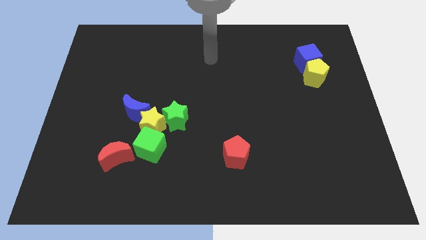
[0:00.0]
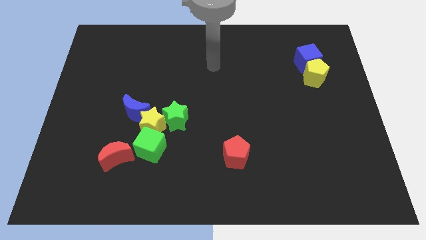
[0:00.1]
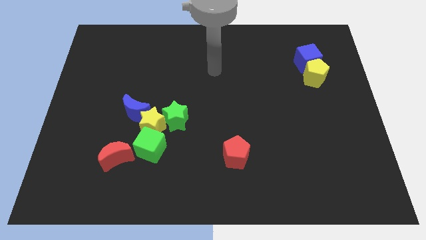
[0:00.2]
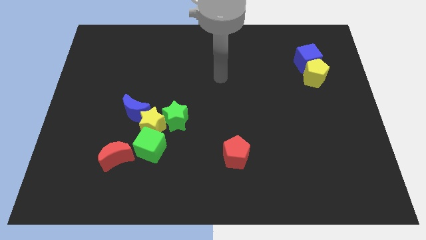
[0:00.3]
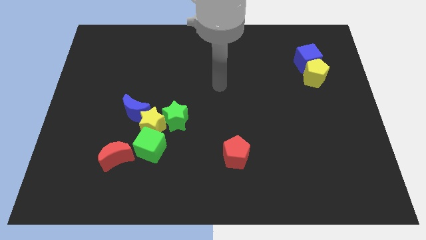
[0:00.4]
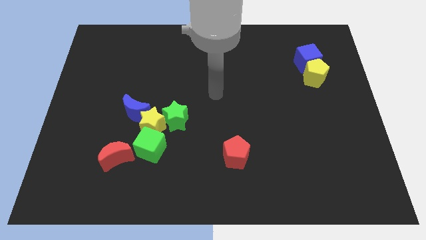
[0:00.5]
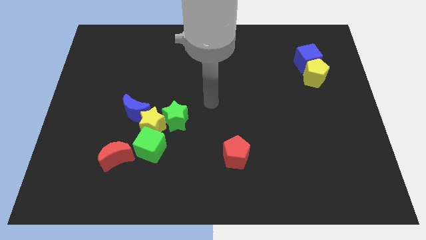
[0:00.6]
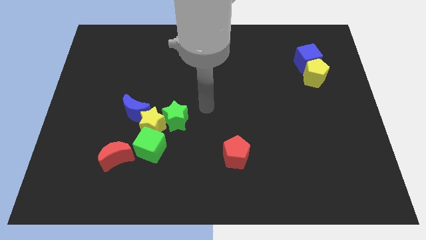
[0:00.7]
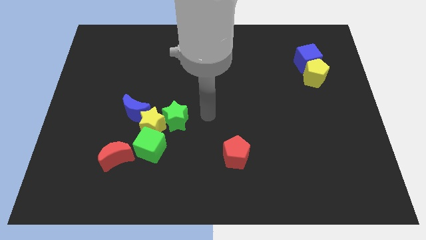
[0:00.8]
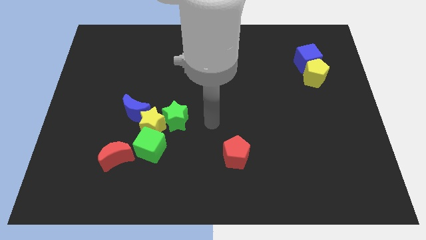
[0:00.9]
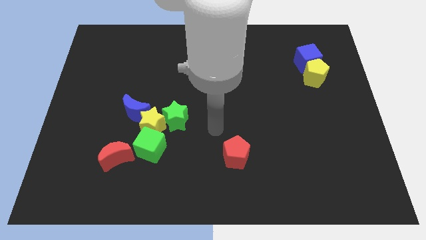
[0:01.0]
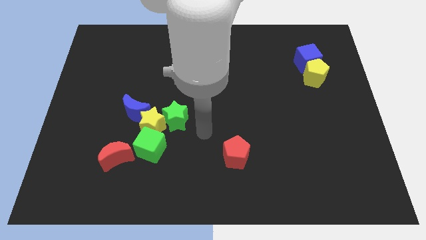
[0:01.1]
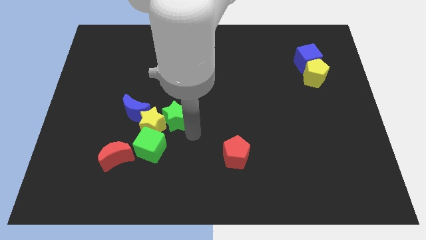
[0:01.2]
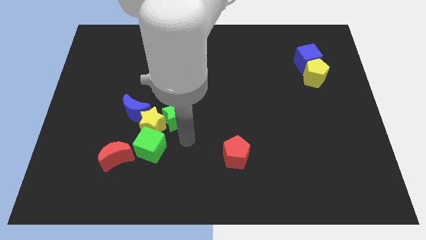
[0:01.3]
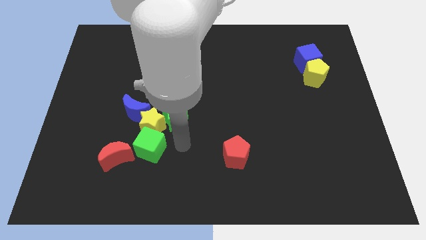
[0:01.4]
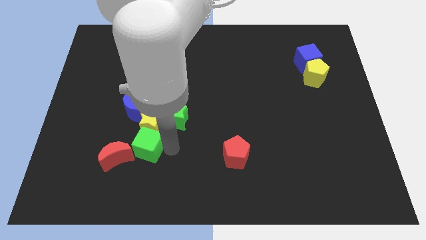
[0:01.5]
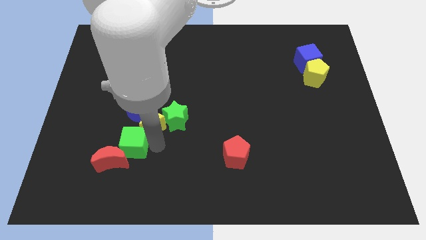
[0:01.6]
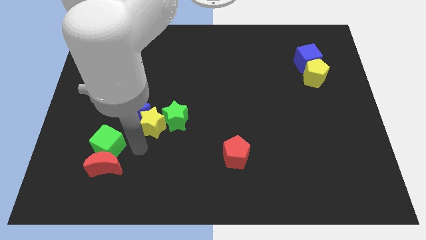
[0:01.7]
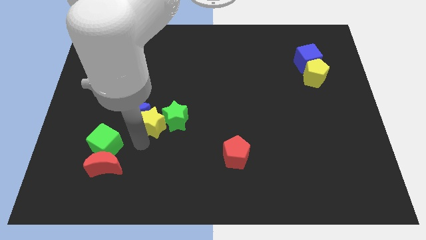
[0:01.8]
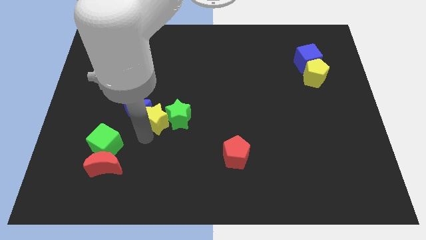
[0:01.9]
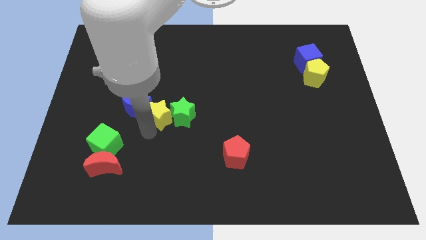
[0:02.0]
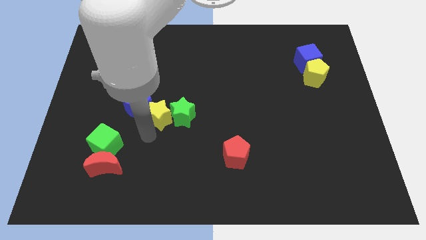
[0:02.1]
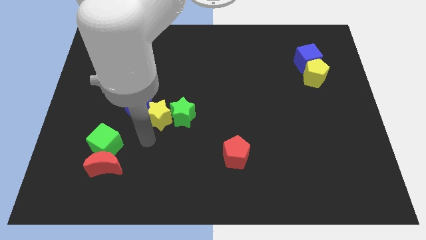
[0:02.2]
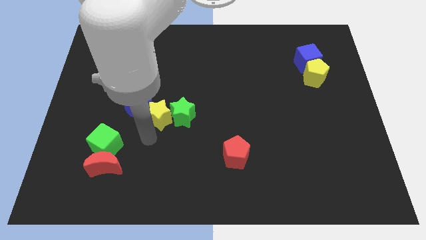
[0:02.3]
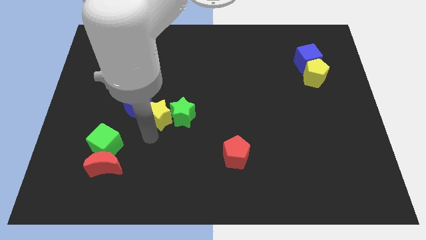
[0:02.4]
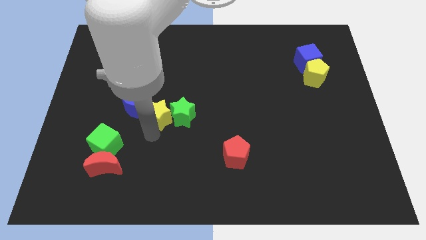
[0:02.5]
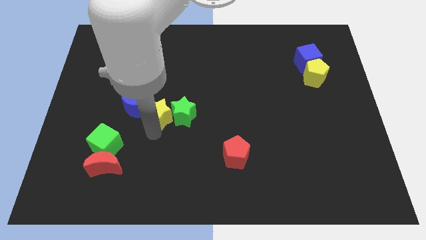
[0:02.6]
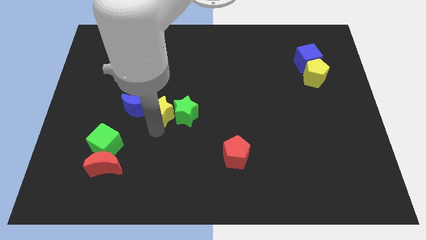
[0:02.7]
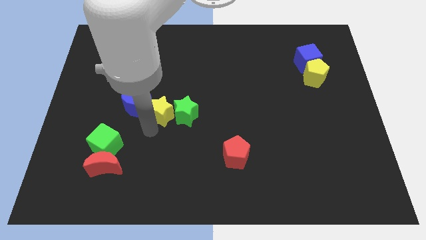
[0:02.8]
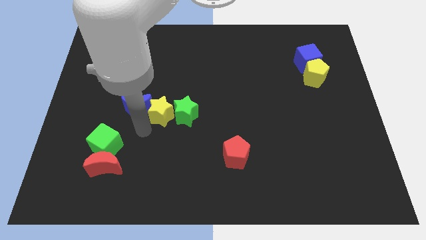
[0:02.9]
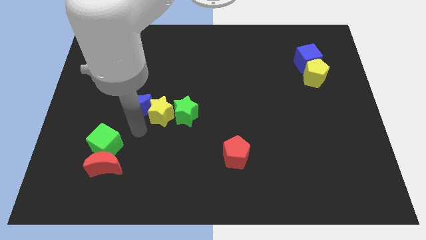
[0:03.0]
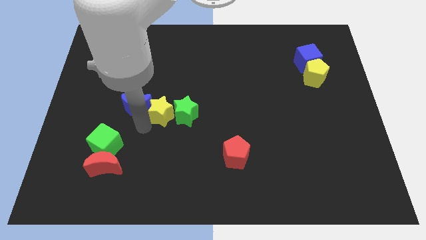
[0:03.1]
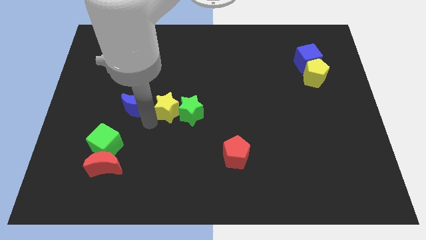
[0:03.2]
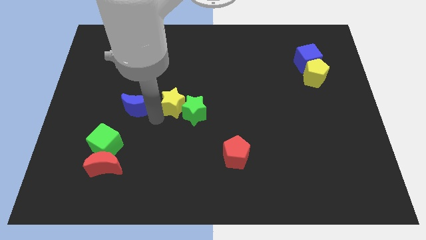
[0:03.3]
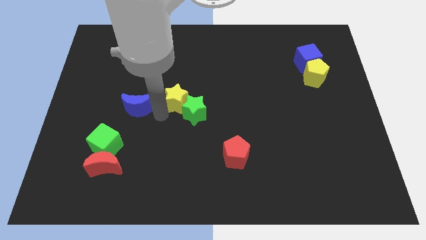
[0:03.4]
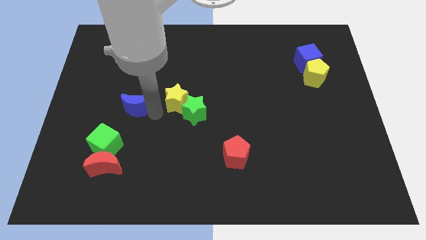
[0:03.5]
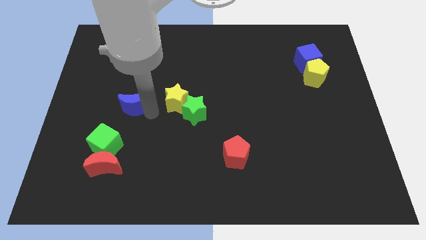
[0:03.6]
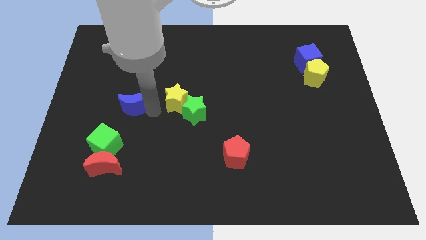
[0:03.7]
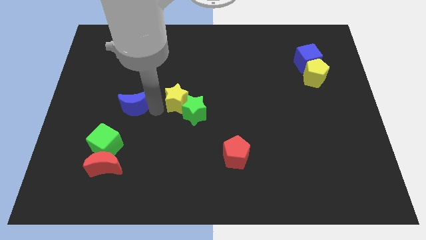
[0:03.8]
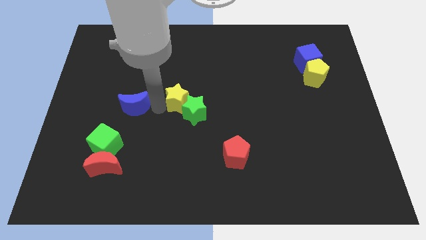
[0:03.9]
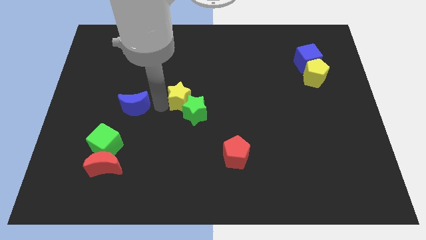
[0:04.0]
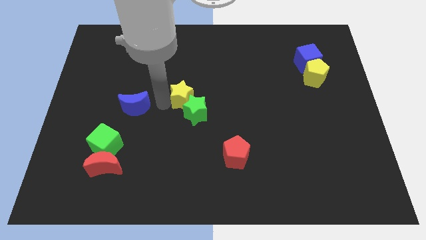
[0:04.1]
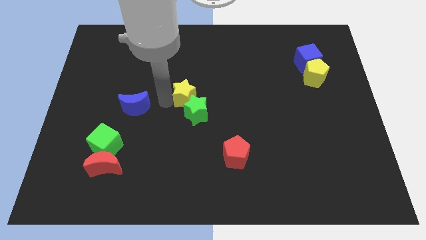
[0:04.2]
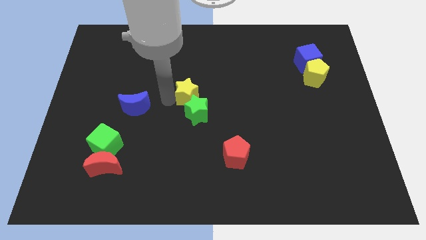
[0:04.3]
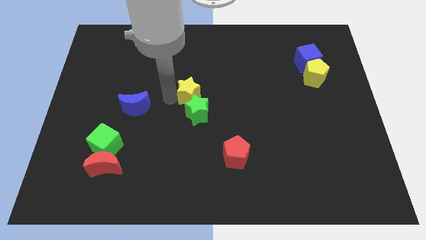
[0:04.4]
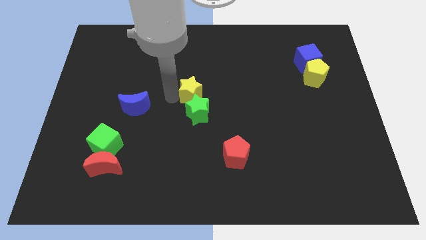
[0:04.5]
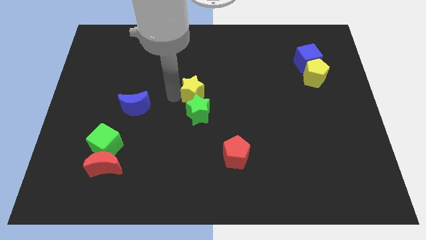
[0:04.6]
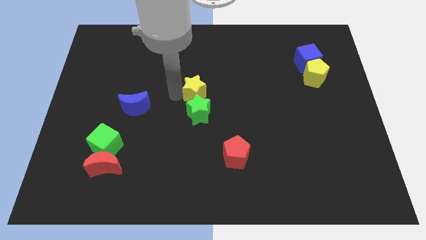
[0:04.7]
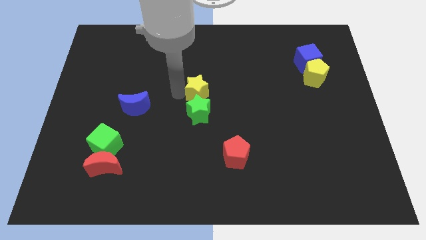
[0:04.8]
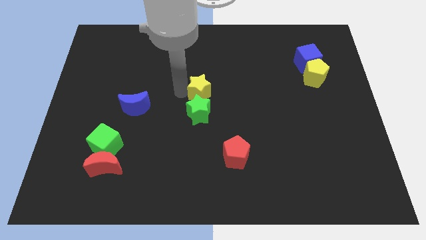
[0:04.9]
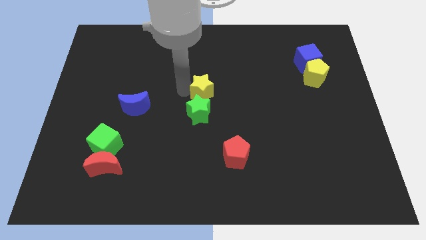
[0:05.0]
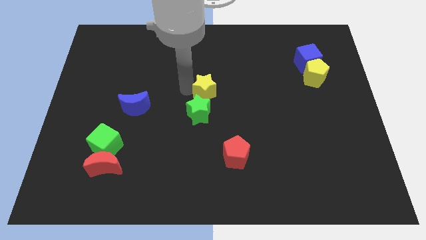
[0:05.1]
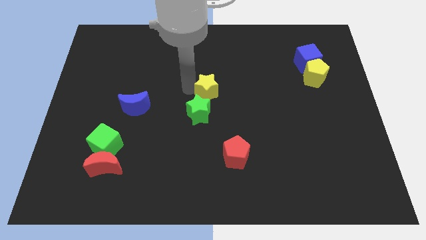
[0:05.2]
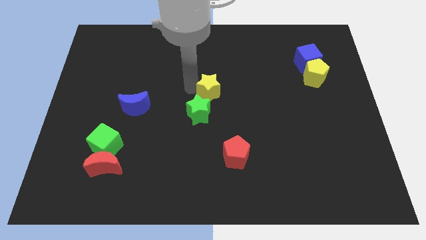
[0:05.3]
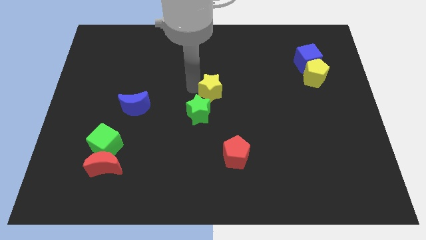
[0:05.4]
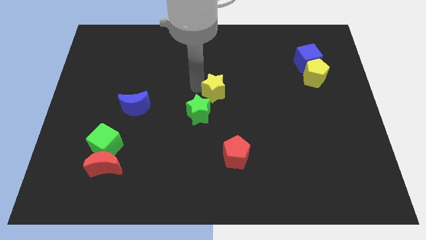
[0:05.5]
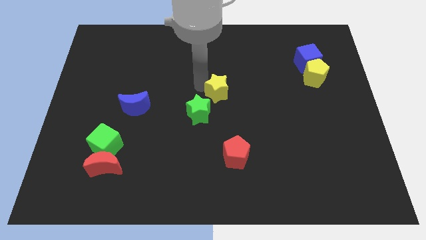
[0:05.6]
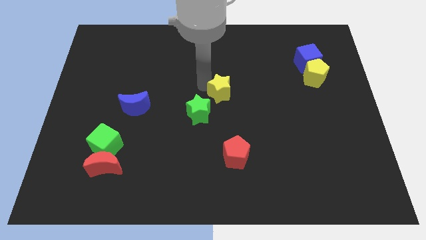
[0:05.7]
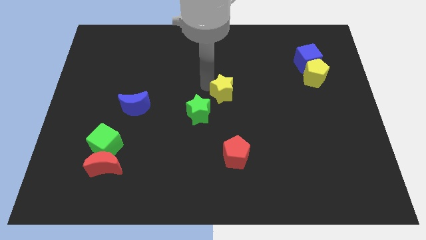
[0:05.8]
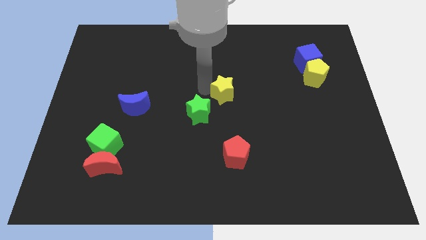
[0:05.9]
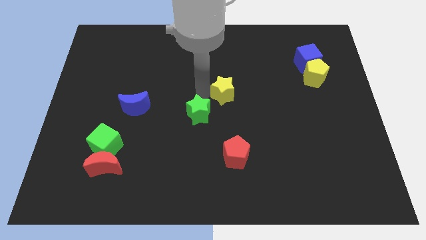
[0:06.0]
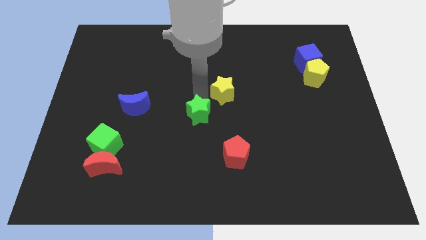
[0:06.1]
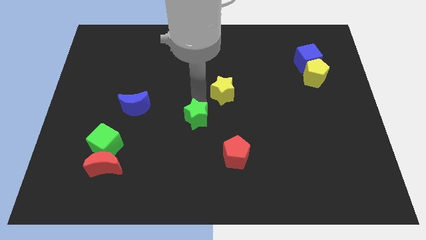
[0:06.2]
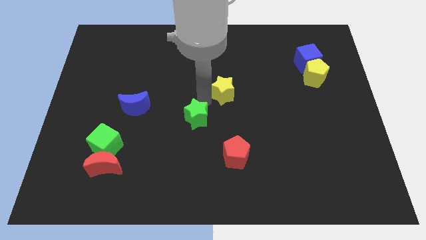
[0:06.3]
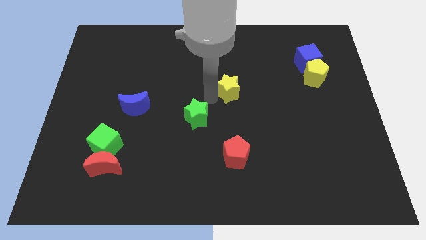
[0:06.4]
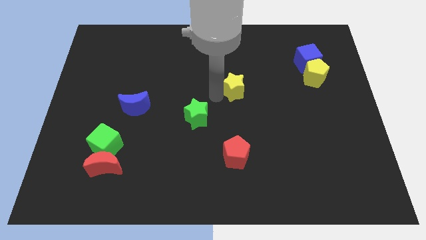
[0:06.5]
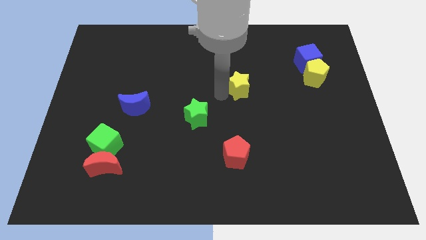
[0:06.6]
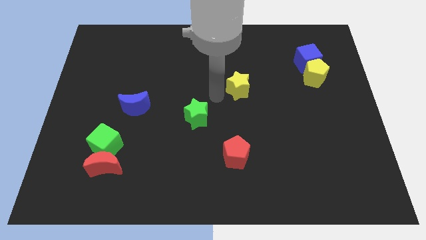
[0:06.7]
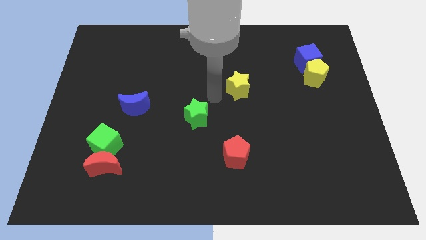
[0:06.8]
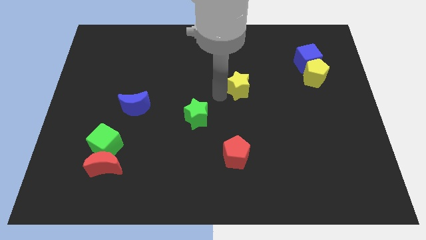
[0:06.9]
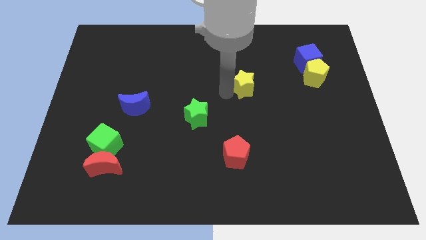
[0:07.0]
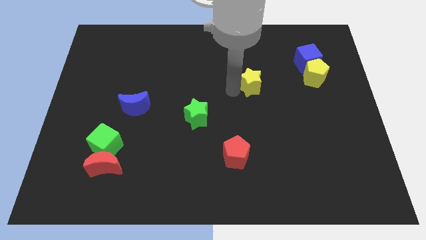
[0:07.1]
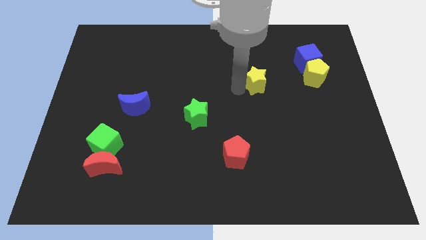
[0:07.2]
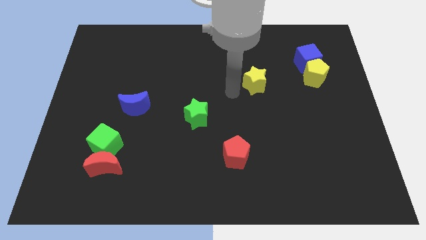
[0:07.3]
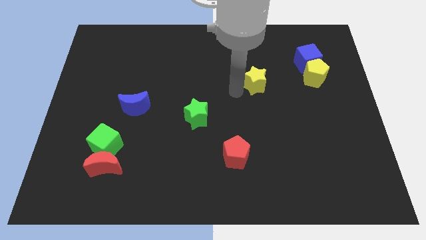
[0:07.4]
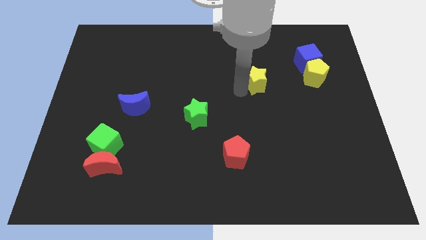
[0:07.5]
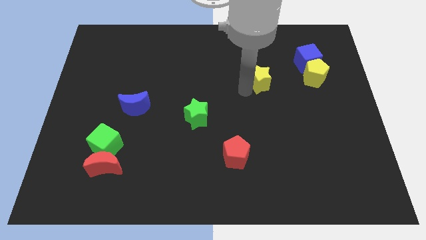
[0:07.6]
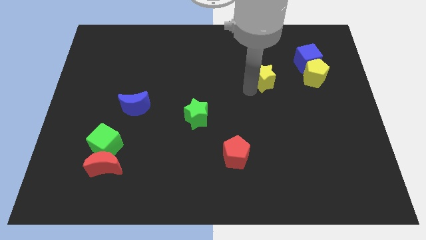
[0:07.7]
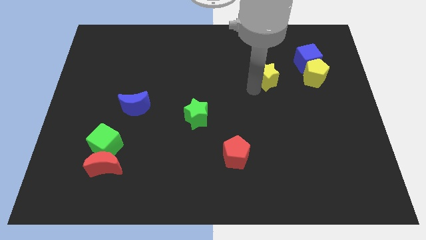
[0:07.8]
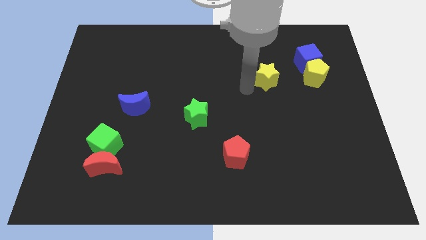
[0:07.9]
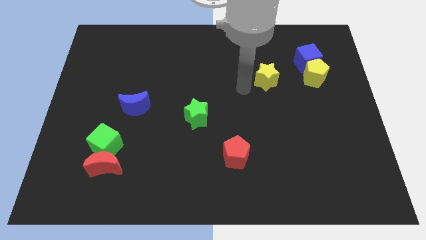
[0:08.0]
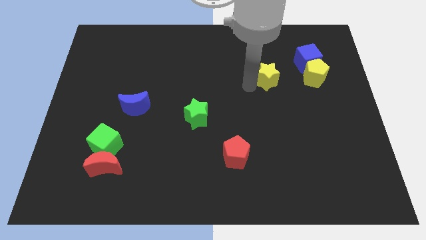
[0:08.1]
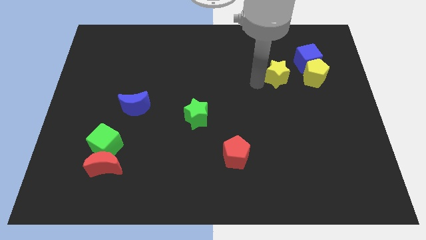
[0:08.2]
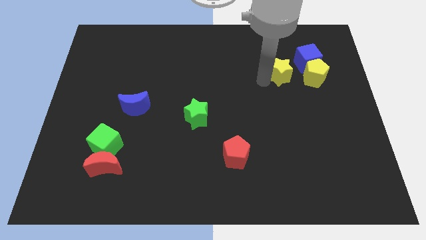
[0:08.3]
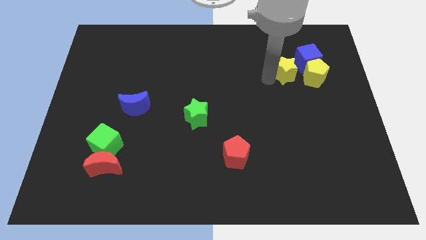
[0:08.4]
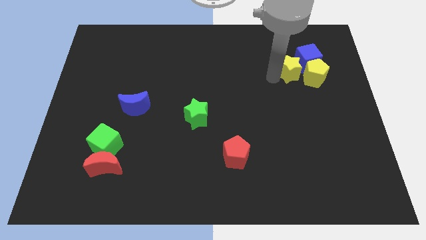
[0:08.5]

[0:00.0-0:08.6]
move the yellow star to the blue cube
